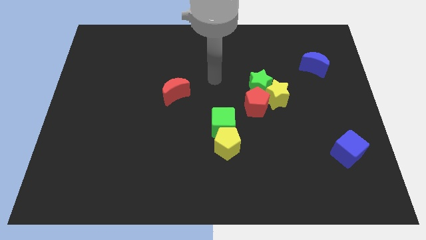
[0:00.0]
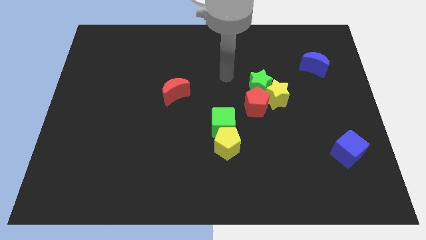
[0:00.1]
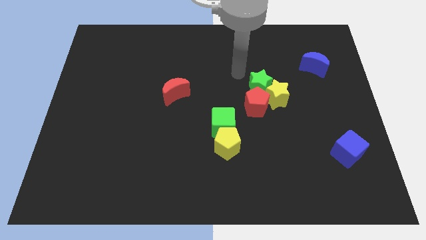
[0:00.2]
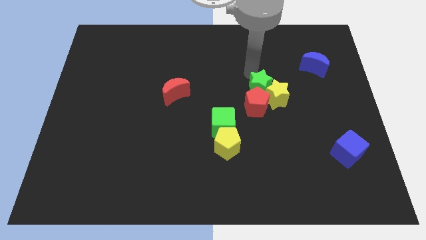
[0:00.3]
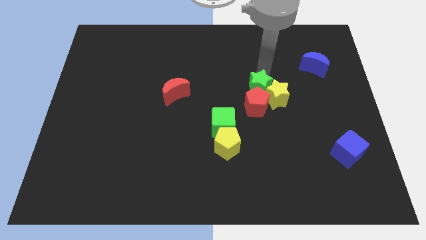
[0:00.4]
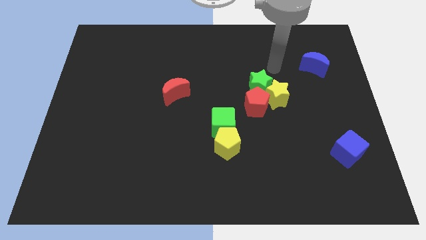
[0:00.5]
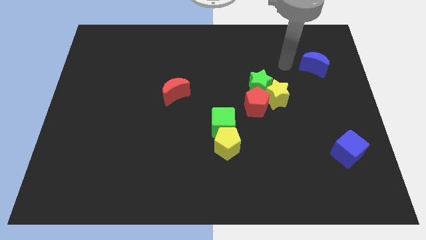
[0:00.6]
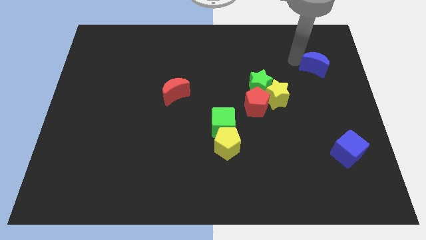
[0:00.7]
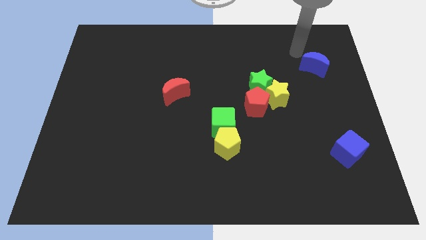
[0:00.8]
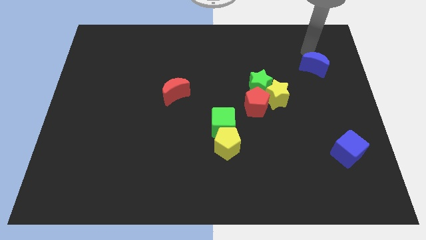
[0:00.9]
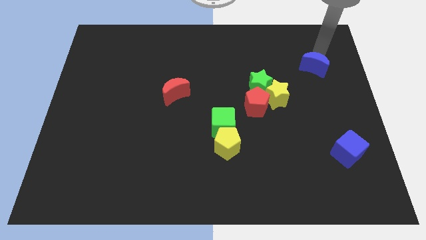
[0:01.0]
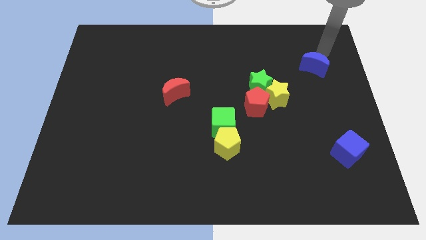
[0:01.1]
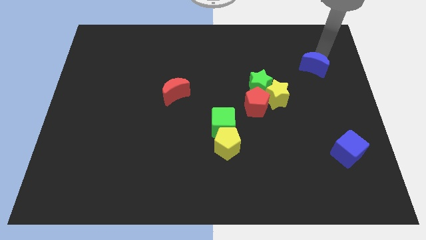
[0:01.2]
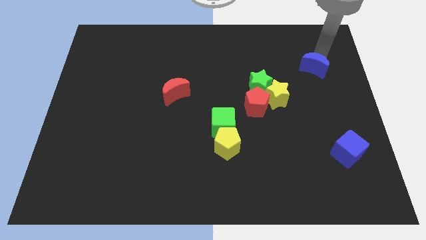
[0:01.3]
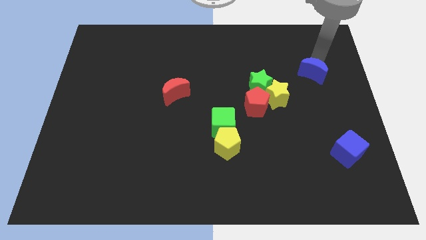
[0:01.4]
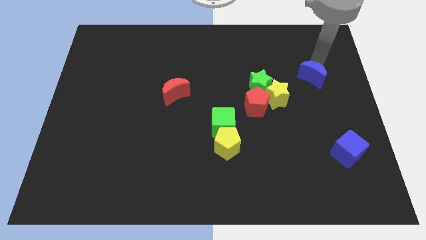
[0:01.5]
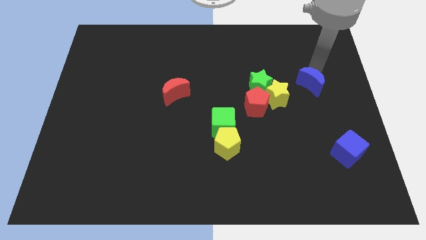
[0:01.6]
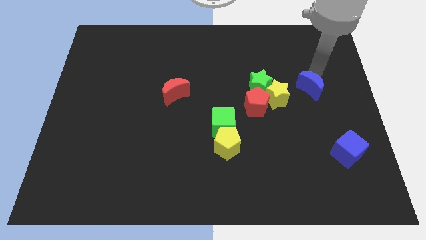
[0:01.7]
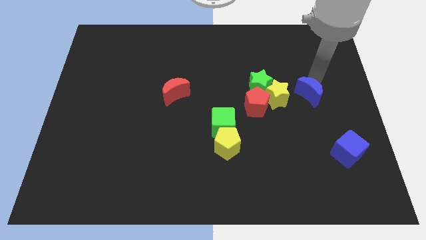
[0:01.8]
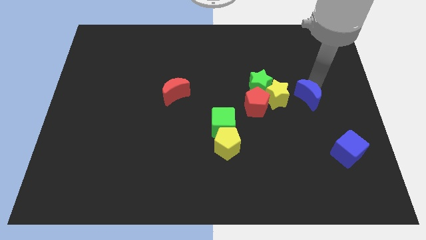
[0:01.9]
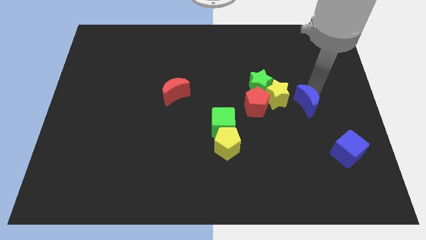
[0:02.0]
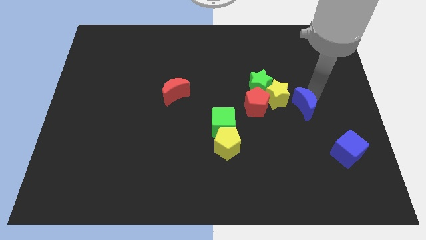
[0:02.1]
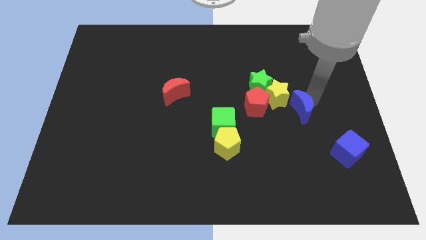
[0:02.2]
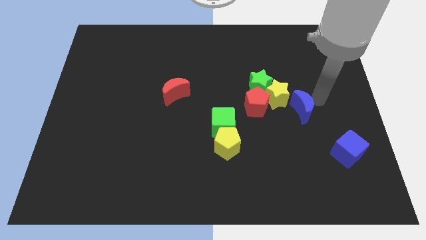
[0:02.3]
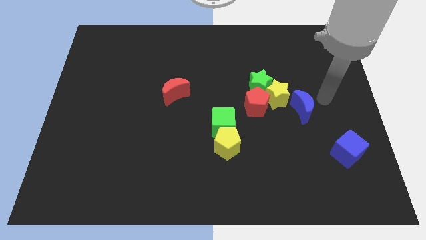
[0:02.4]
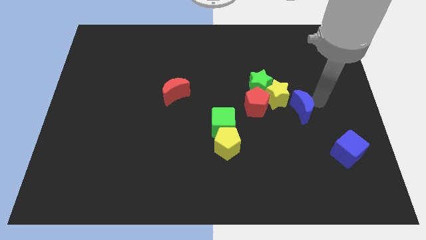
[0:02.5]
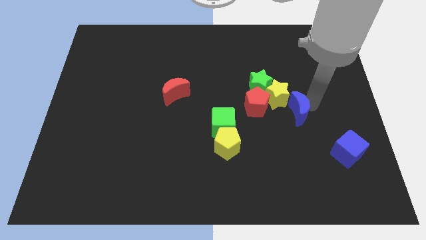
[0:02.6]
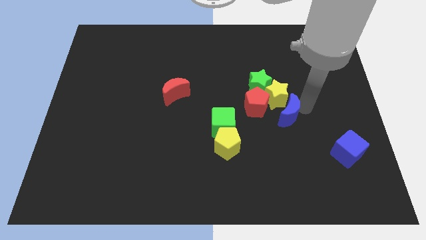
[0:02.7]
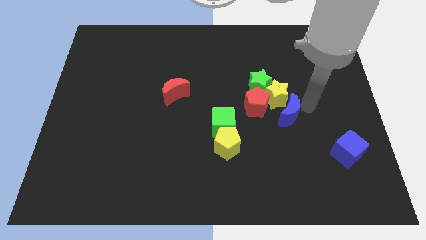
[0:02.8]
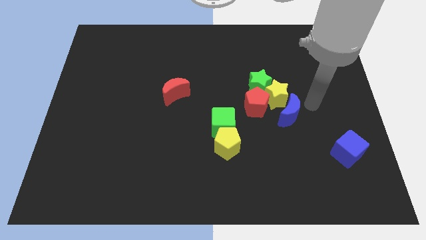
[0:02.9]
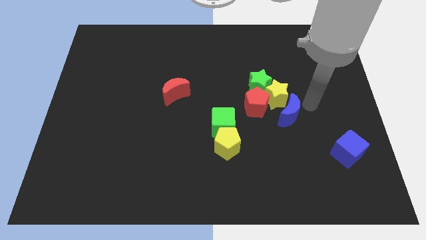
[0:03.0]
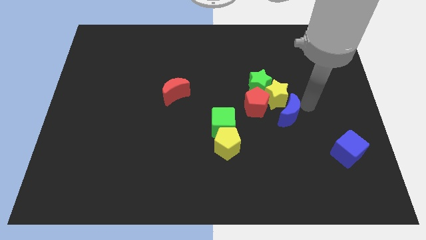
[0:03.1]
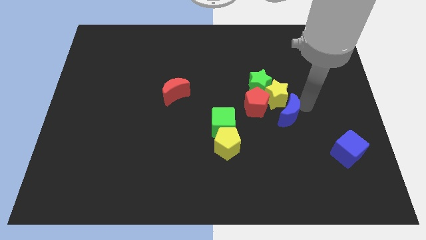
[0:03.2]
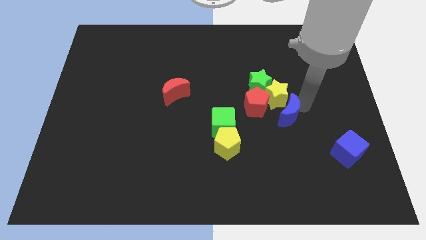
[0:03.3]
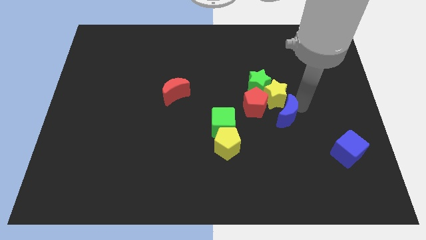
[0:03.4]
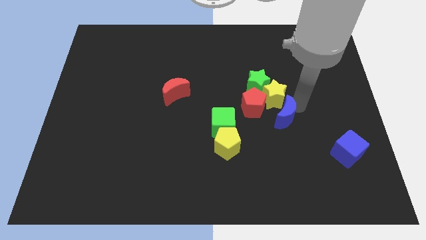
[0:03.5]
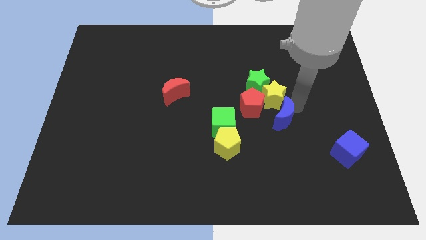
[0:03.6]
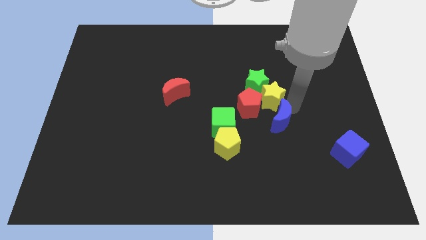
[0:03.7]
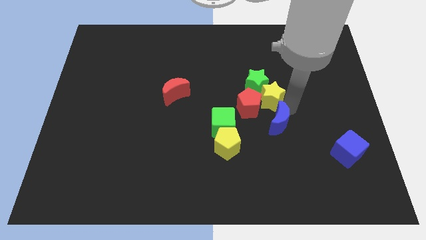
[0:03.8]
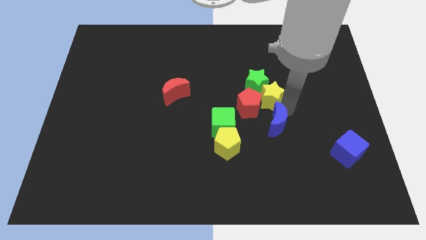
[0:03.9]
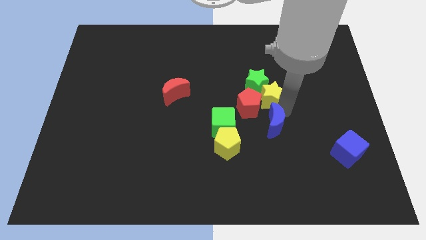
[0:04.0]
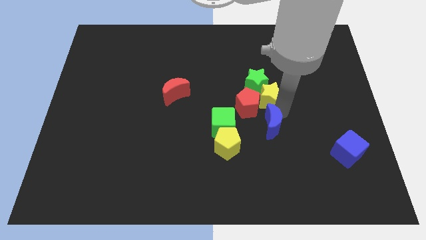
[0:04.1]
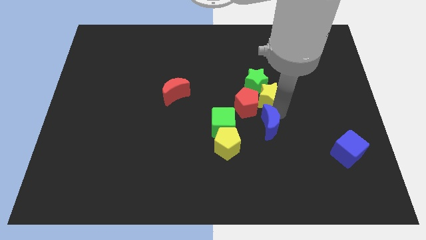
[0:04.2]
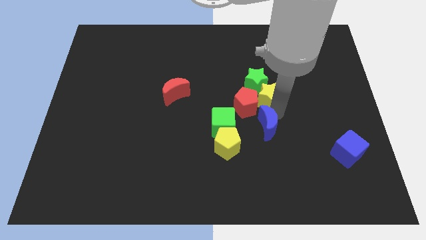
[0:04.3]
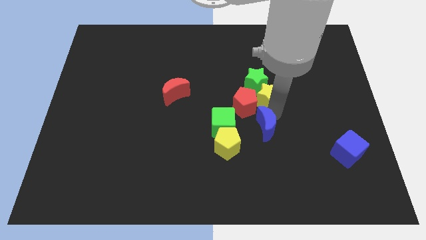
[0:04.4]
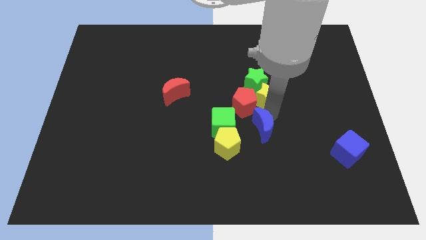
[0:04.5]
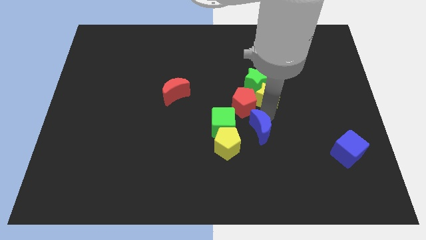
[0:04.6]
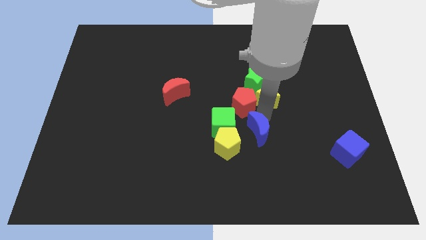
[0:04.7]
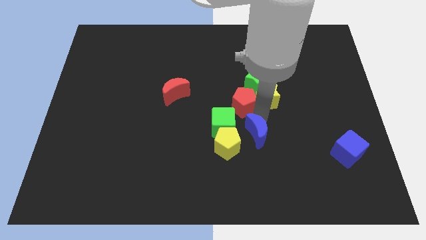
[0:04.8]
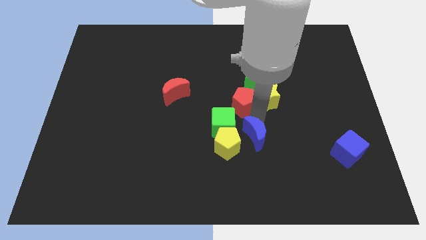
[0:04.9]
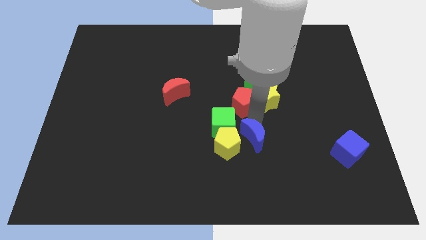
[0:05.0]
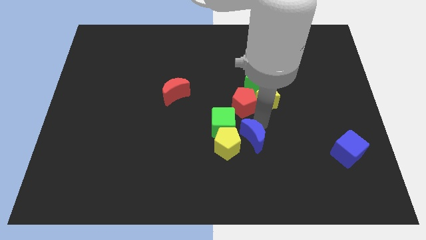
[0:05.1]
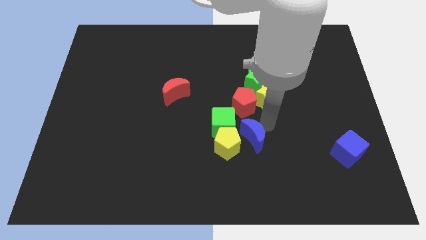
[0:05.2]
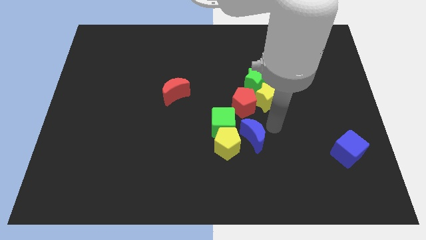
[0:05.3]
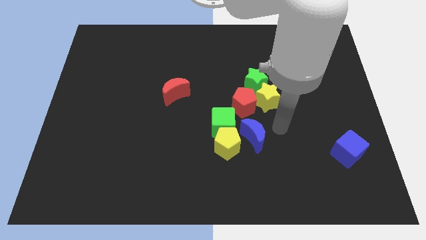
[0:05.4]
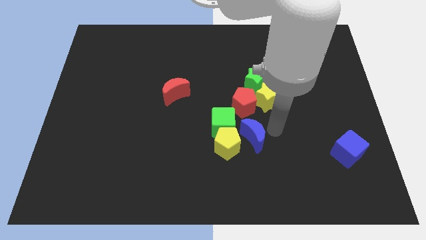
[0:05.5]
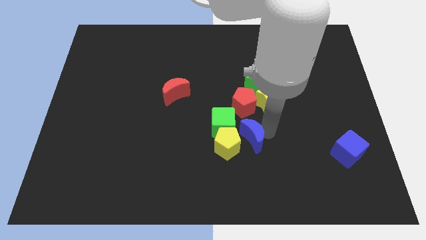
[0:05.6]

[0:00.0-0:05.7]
put the blue moon close to the yellow pentagon

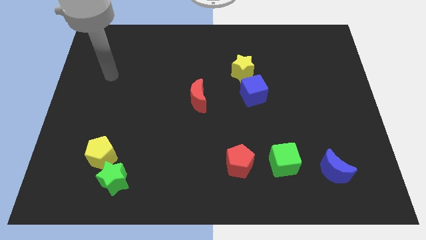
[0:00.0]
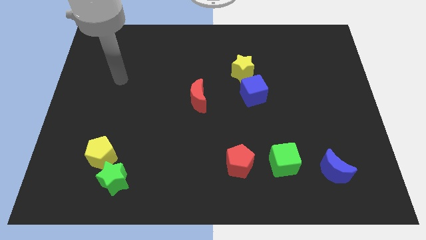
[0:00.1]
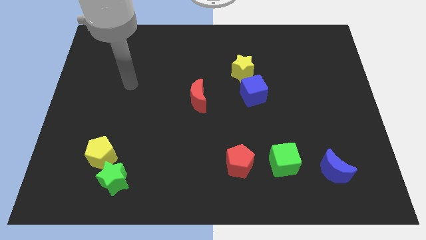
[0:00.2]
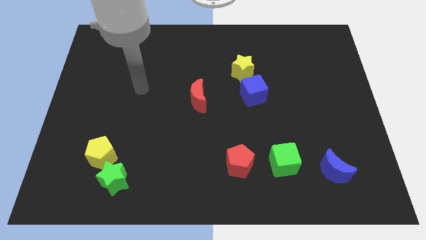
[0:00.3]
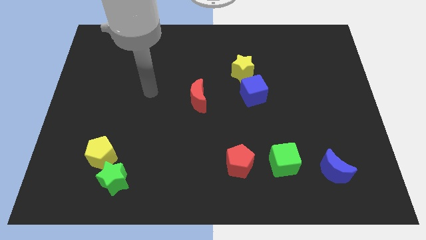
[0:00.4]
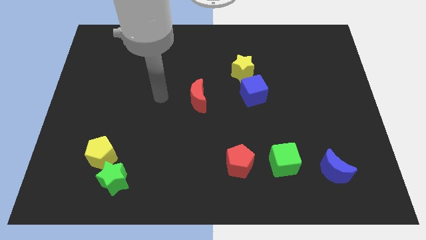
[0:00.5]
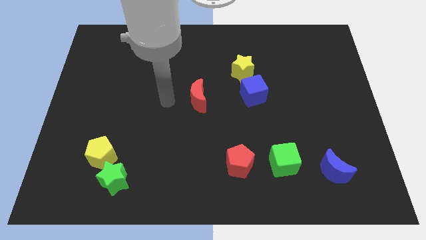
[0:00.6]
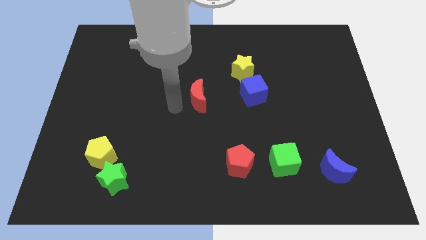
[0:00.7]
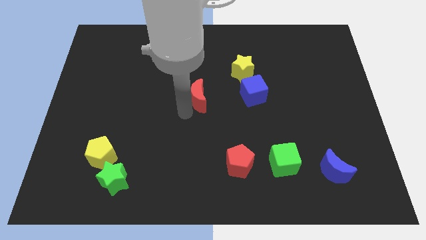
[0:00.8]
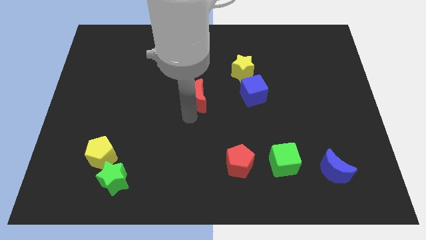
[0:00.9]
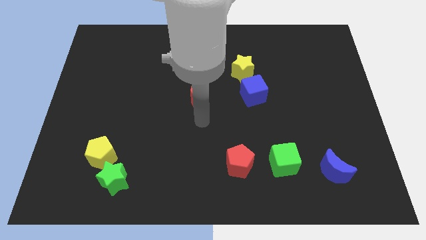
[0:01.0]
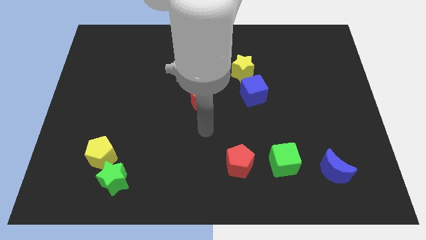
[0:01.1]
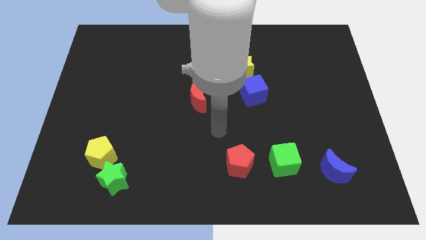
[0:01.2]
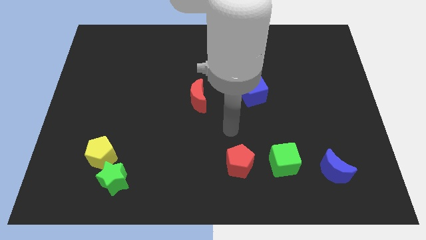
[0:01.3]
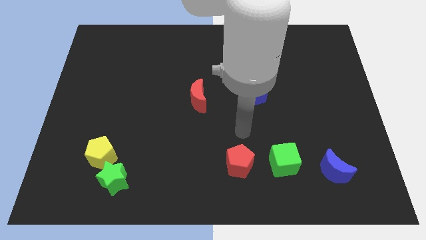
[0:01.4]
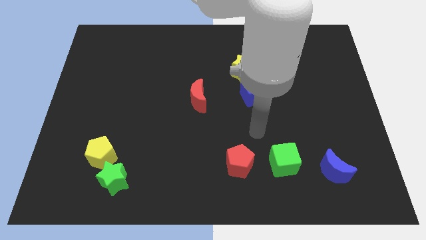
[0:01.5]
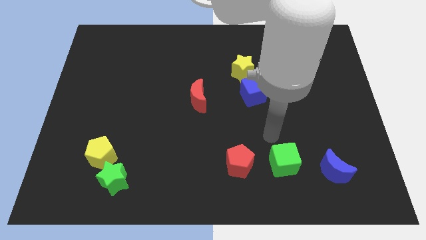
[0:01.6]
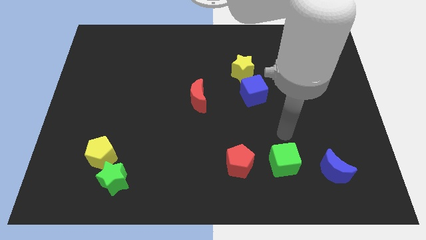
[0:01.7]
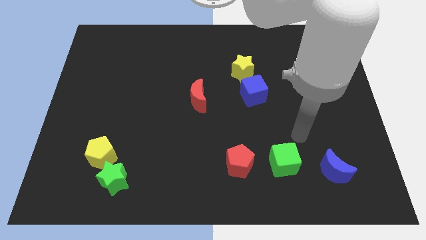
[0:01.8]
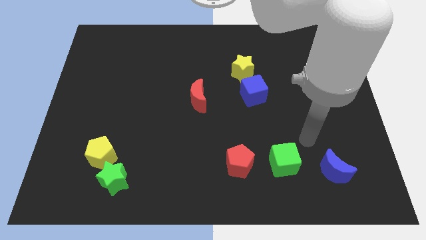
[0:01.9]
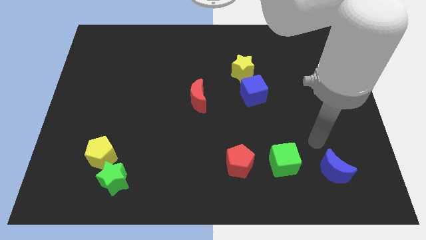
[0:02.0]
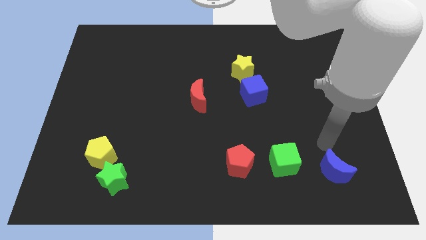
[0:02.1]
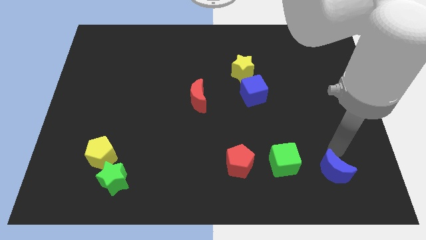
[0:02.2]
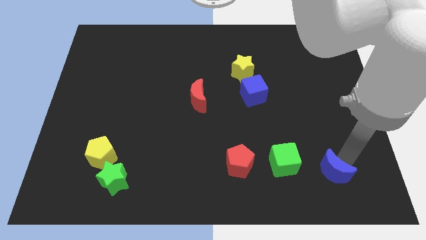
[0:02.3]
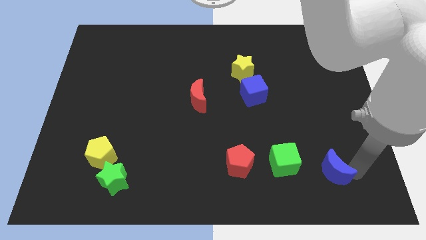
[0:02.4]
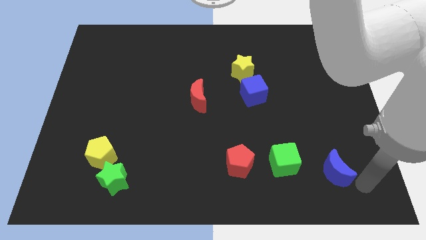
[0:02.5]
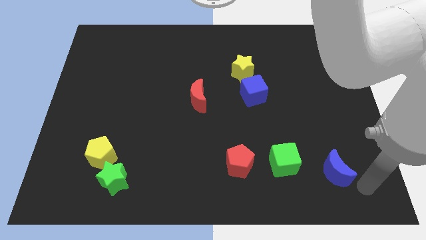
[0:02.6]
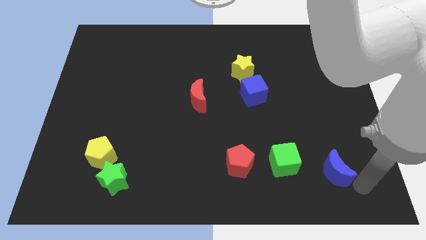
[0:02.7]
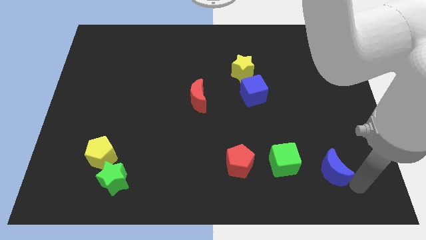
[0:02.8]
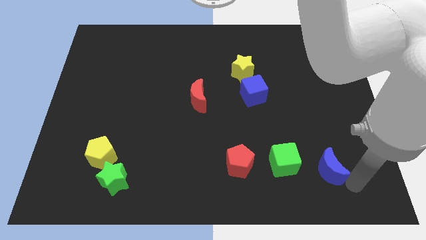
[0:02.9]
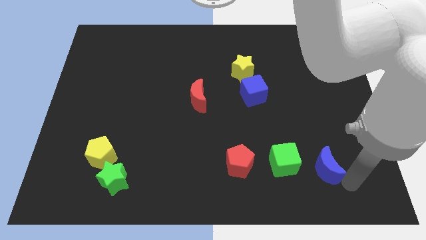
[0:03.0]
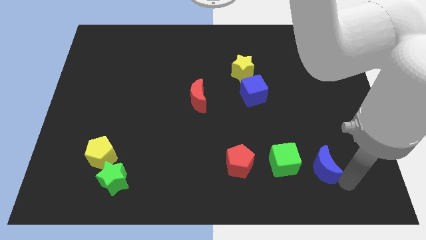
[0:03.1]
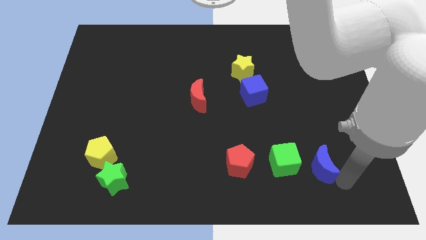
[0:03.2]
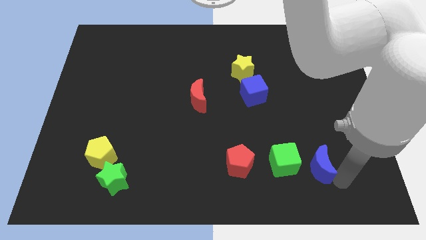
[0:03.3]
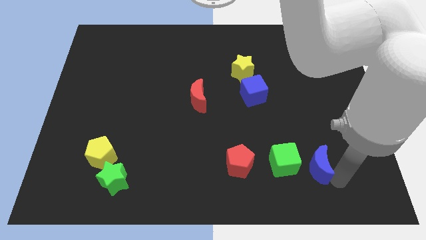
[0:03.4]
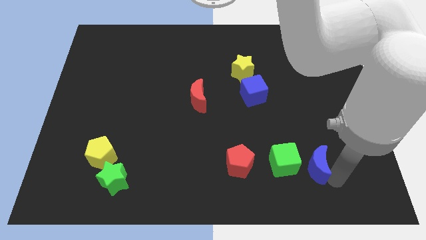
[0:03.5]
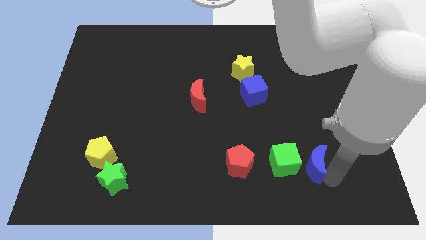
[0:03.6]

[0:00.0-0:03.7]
push the blue moon to the green cube
